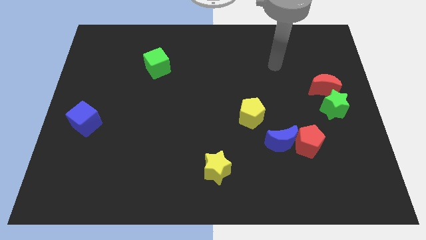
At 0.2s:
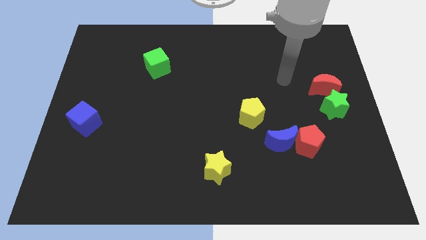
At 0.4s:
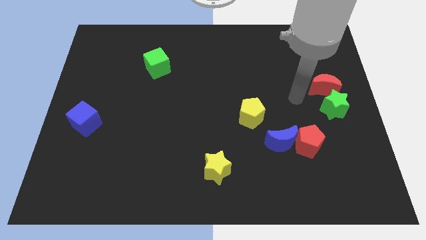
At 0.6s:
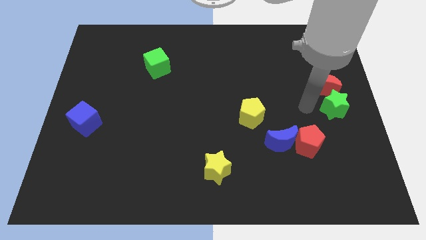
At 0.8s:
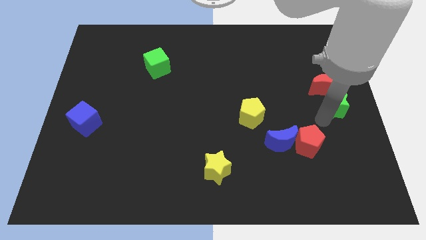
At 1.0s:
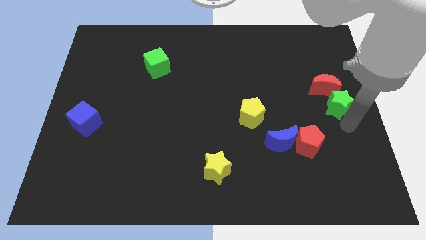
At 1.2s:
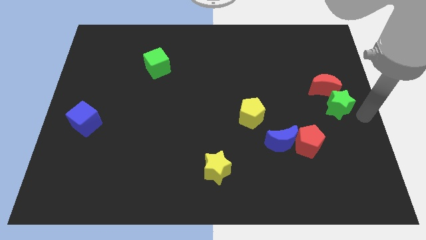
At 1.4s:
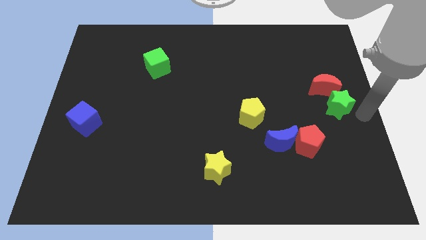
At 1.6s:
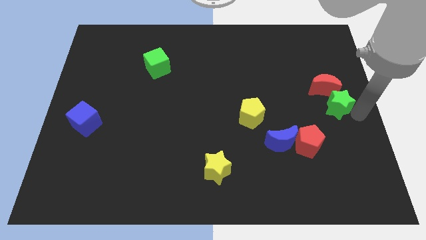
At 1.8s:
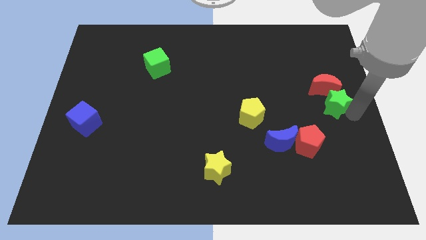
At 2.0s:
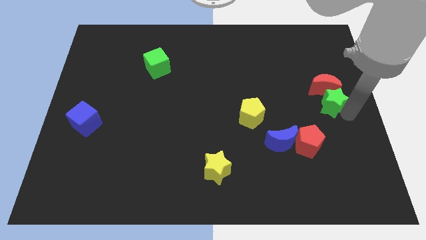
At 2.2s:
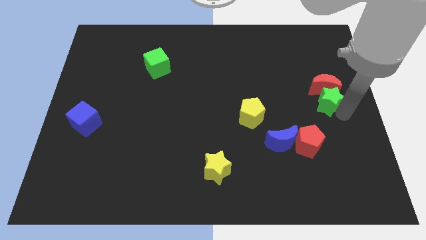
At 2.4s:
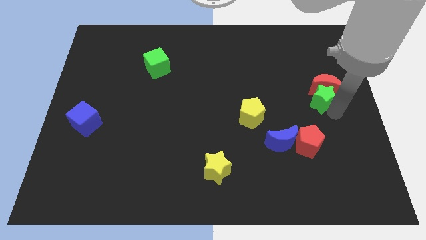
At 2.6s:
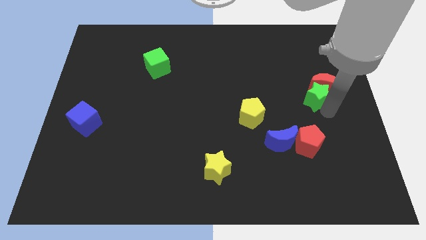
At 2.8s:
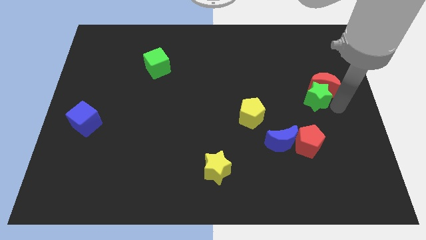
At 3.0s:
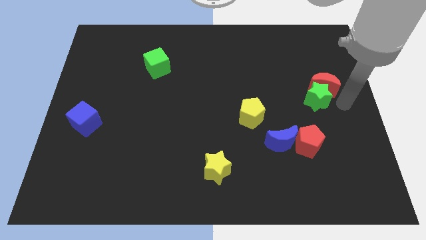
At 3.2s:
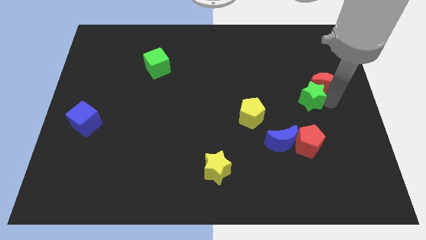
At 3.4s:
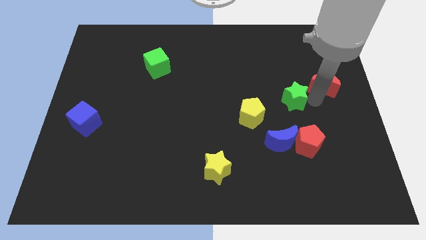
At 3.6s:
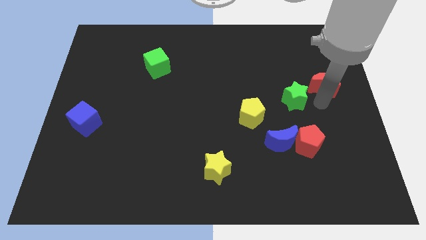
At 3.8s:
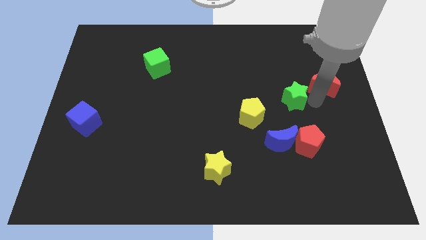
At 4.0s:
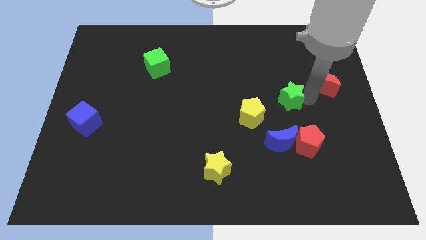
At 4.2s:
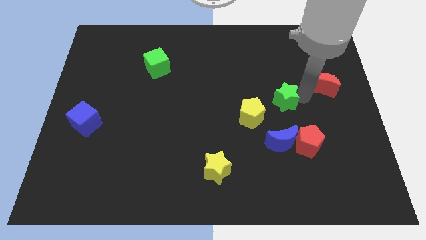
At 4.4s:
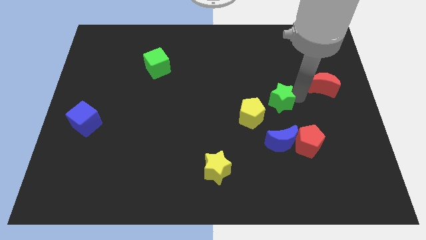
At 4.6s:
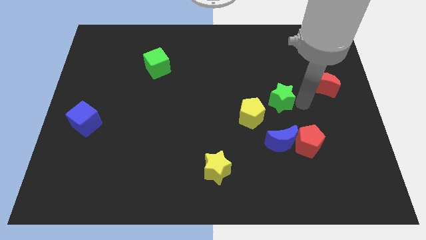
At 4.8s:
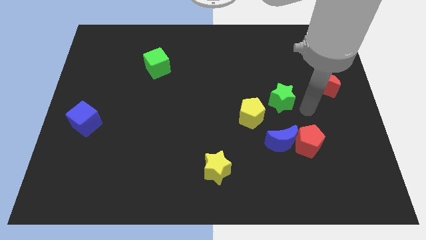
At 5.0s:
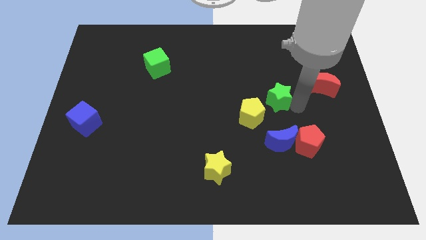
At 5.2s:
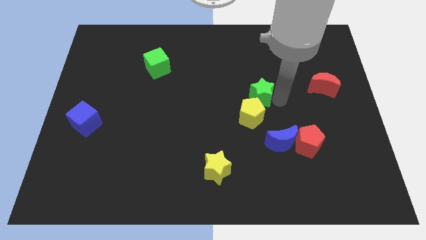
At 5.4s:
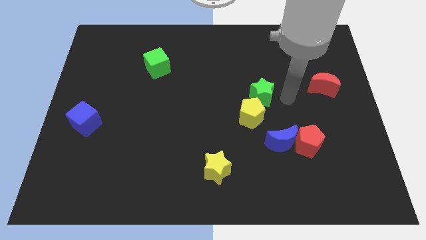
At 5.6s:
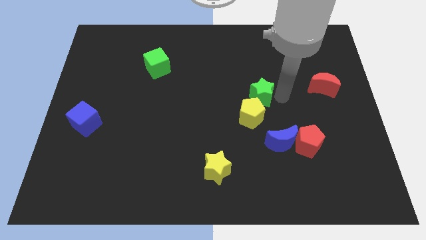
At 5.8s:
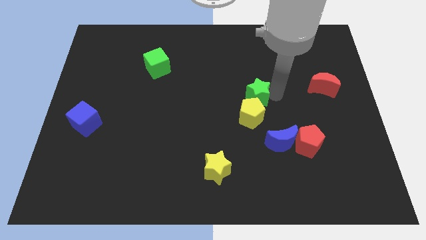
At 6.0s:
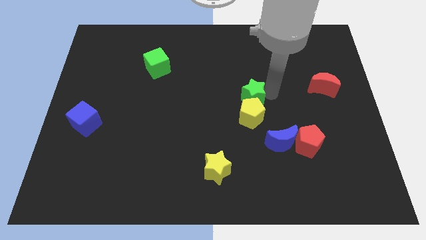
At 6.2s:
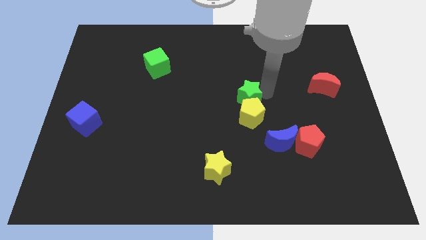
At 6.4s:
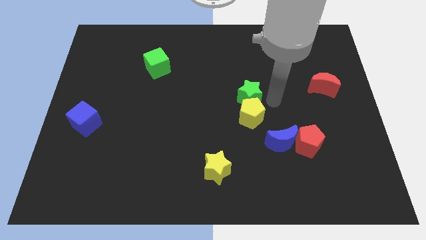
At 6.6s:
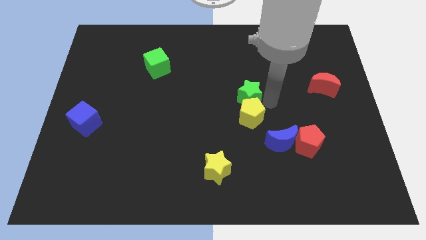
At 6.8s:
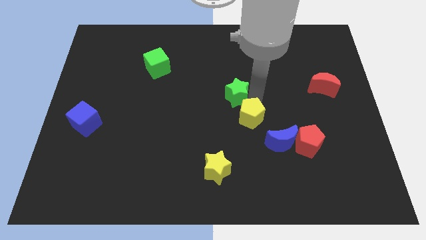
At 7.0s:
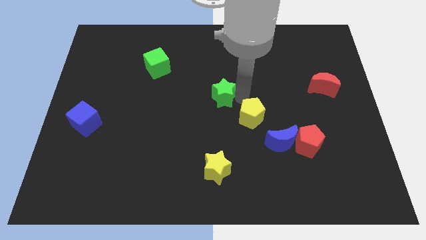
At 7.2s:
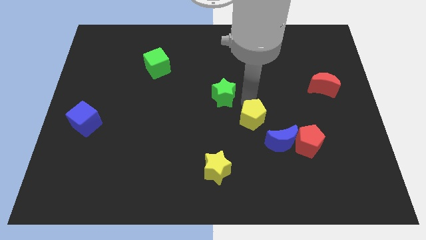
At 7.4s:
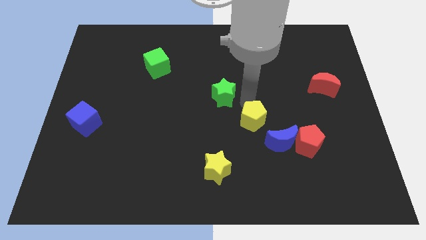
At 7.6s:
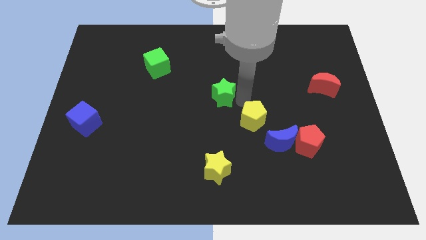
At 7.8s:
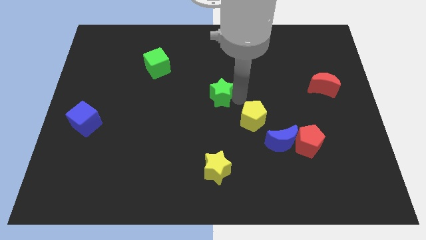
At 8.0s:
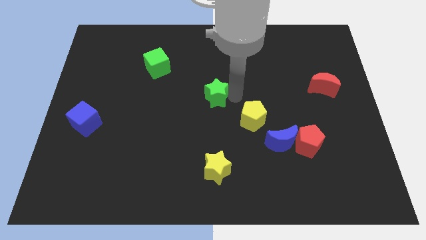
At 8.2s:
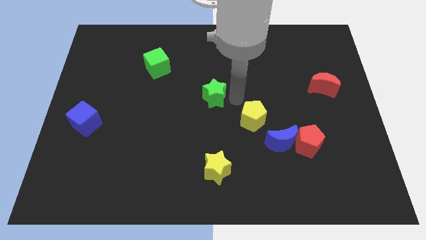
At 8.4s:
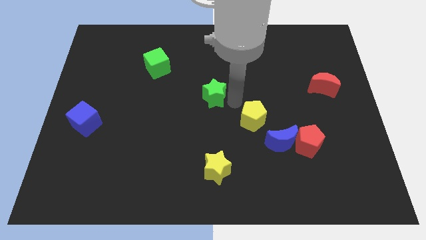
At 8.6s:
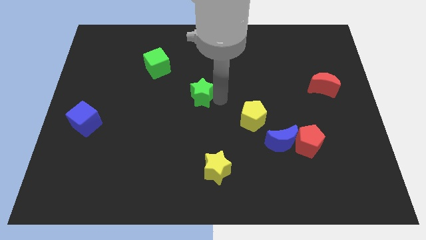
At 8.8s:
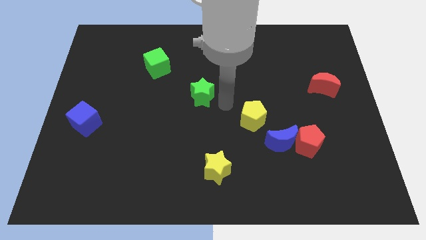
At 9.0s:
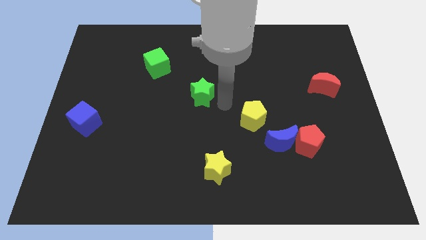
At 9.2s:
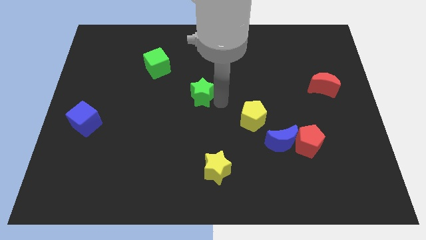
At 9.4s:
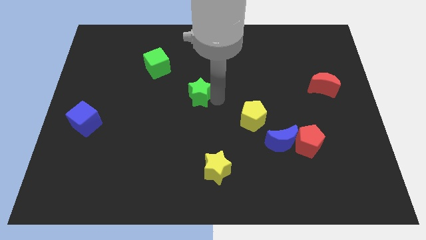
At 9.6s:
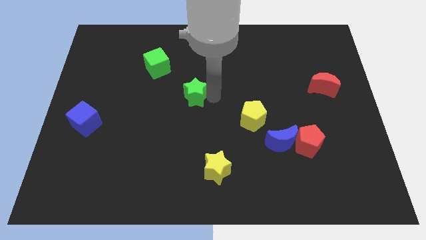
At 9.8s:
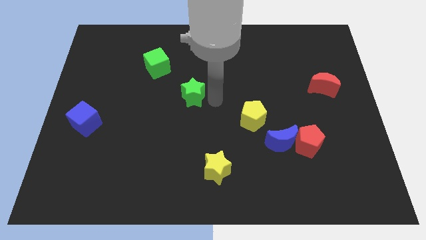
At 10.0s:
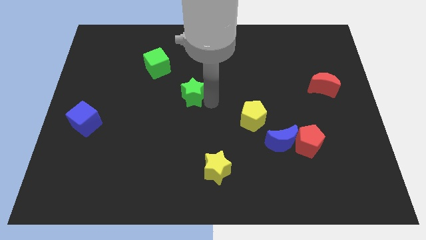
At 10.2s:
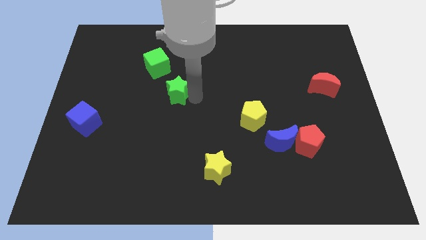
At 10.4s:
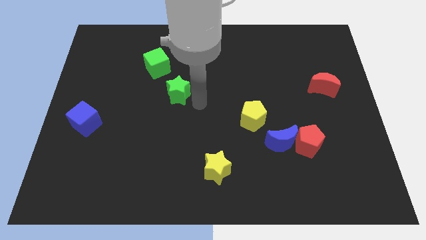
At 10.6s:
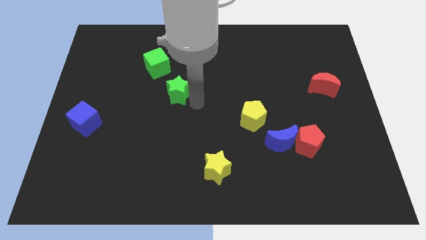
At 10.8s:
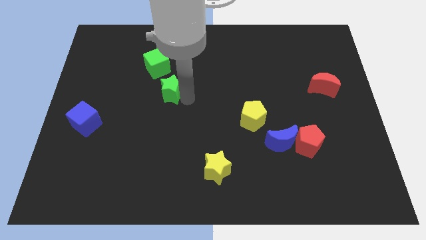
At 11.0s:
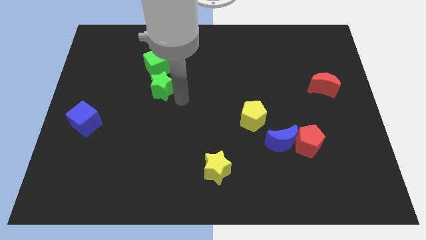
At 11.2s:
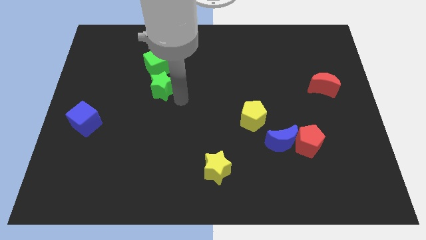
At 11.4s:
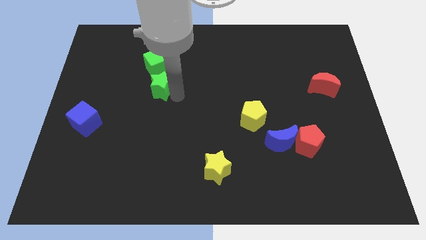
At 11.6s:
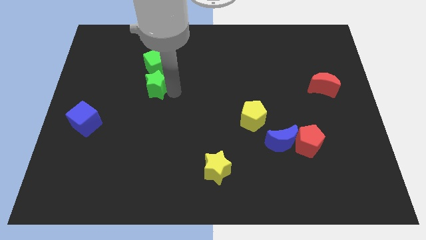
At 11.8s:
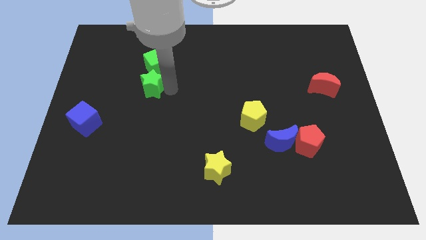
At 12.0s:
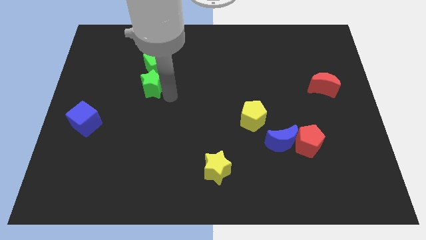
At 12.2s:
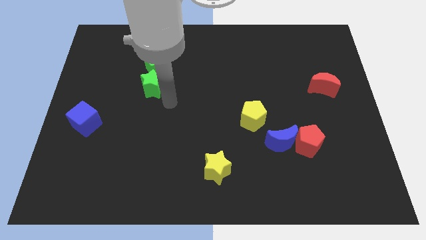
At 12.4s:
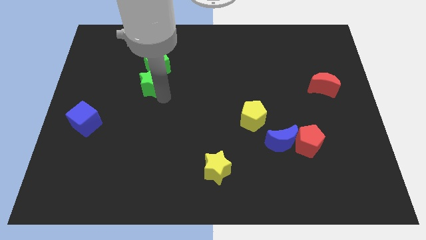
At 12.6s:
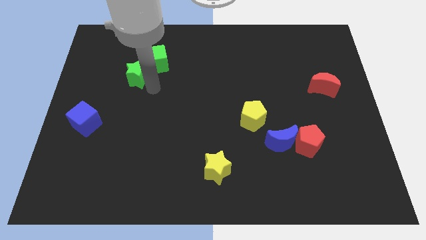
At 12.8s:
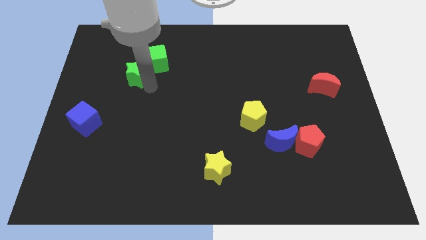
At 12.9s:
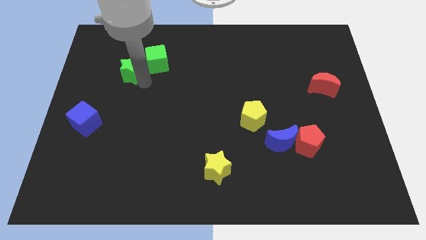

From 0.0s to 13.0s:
move the green star left of the green cube

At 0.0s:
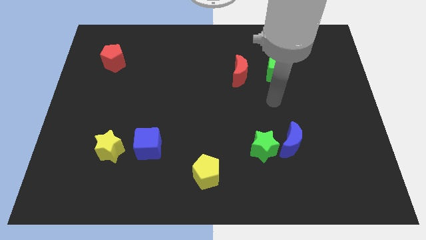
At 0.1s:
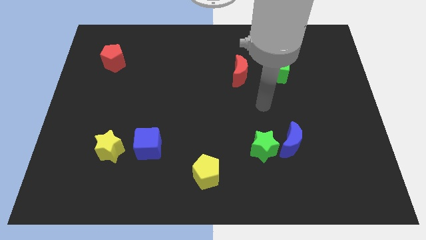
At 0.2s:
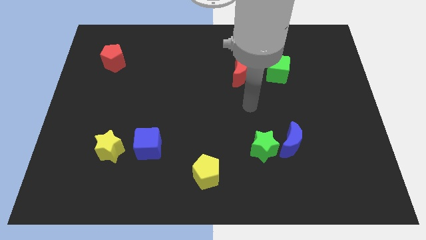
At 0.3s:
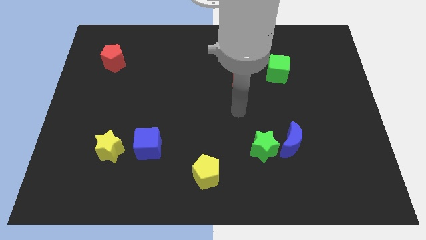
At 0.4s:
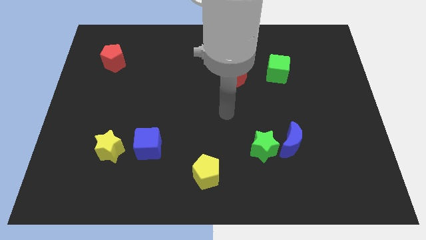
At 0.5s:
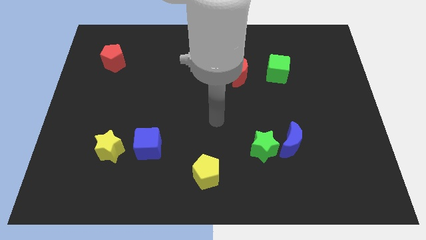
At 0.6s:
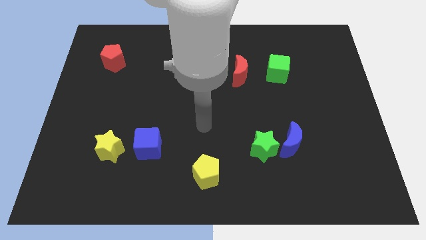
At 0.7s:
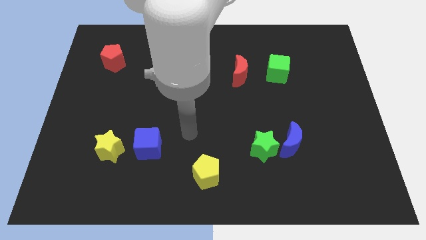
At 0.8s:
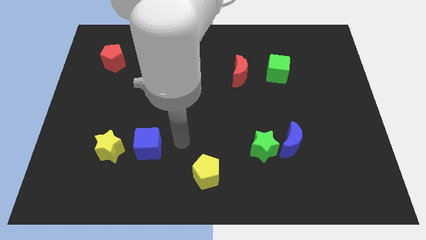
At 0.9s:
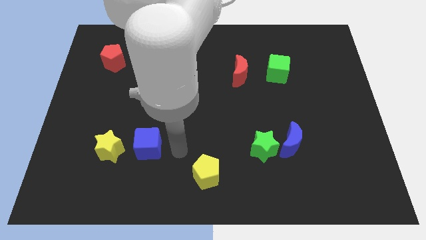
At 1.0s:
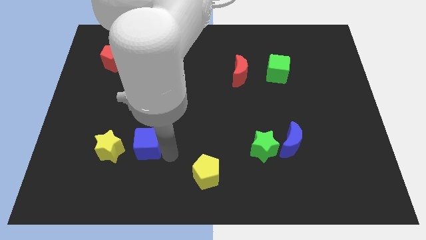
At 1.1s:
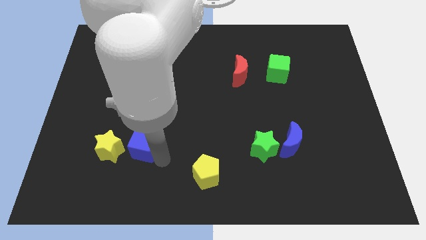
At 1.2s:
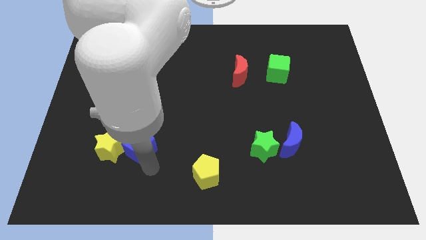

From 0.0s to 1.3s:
put the yellow star to the top left side of the blue cube
